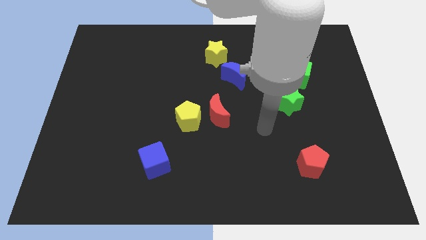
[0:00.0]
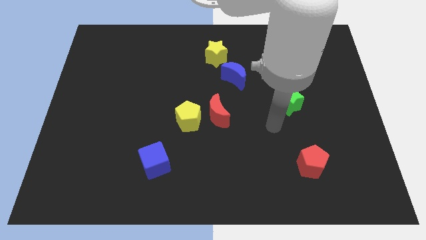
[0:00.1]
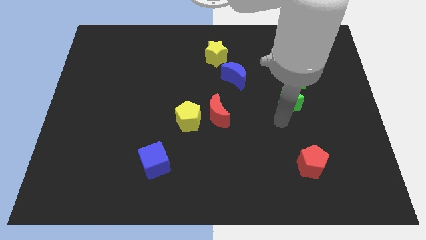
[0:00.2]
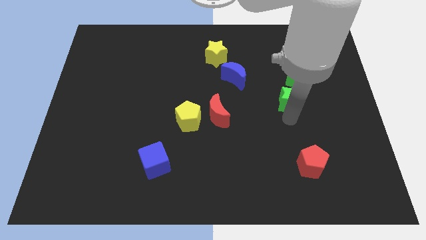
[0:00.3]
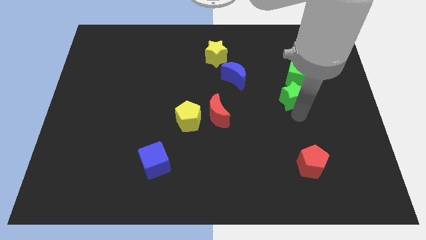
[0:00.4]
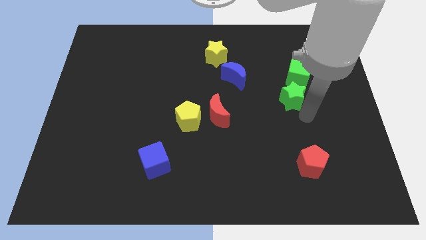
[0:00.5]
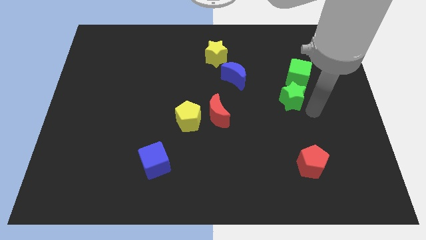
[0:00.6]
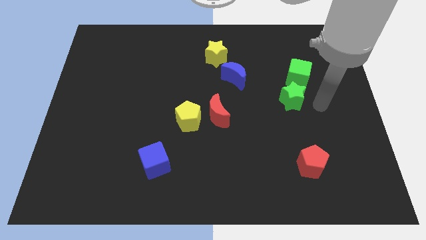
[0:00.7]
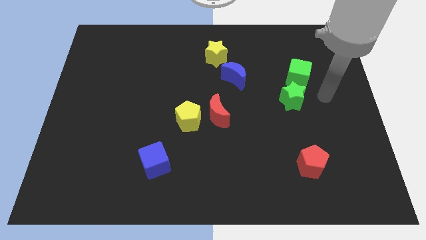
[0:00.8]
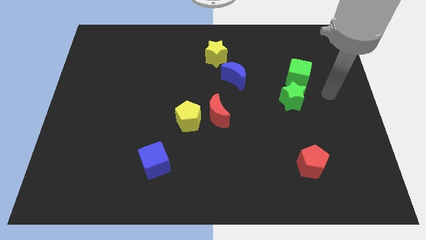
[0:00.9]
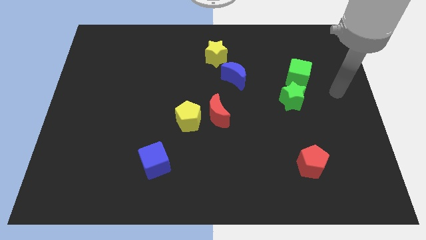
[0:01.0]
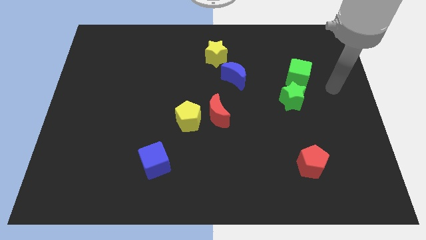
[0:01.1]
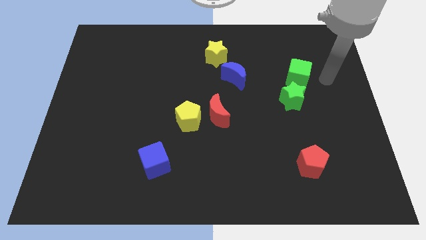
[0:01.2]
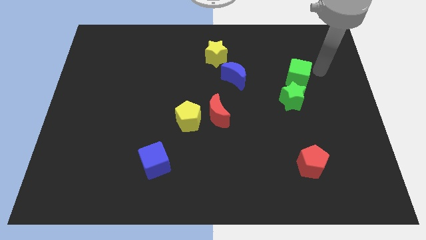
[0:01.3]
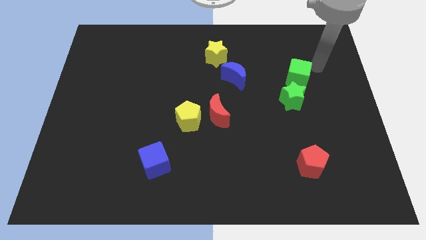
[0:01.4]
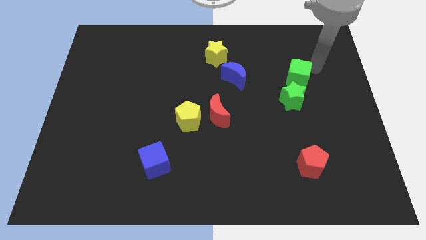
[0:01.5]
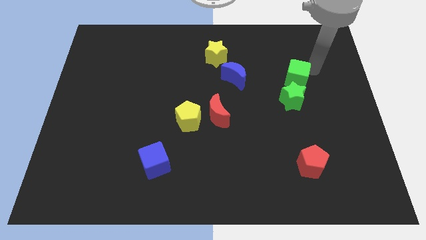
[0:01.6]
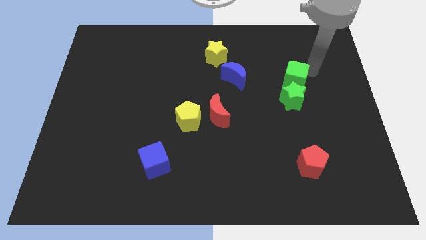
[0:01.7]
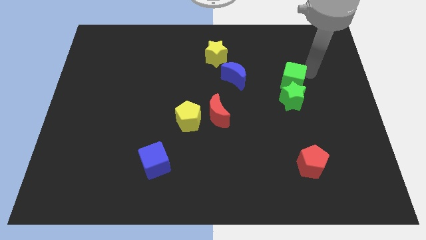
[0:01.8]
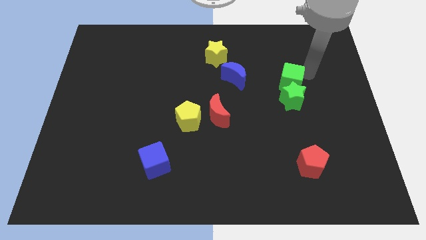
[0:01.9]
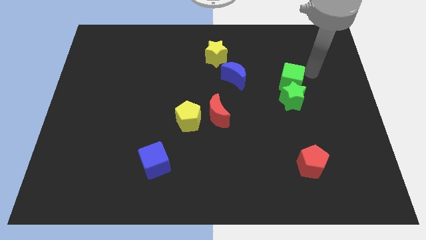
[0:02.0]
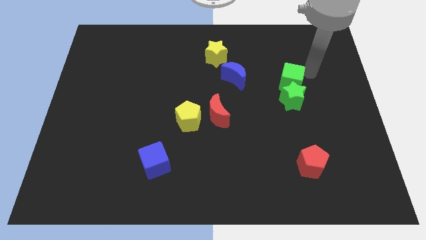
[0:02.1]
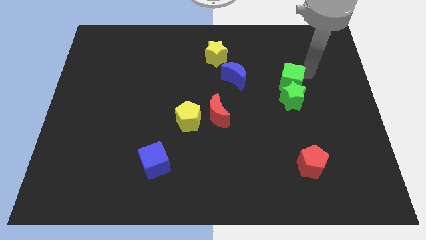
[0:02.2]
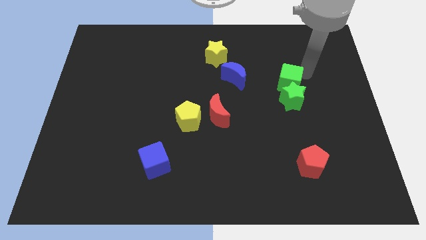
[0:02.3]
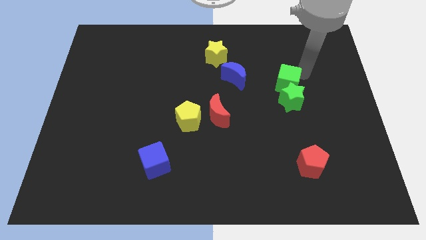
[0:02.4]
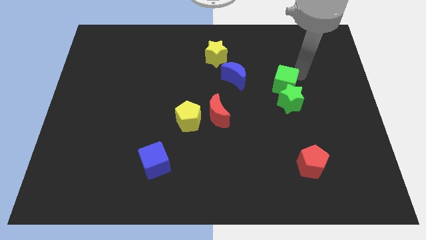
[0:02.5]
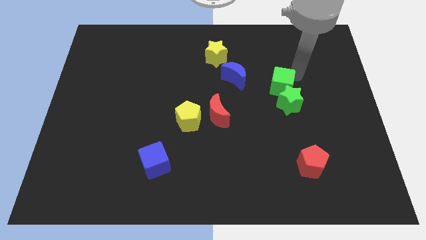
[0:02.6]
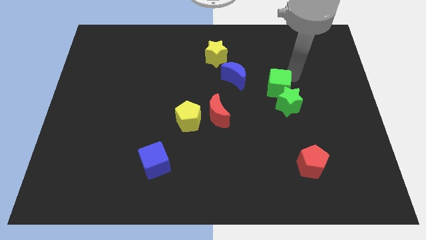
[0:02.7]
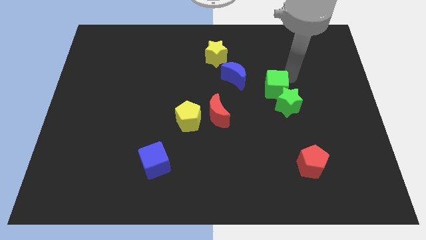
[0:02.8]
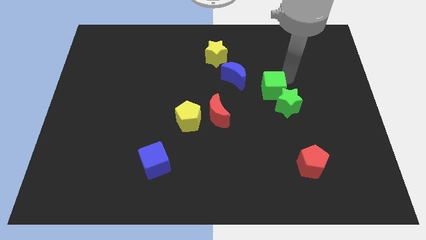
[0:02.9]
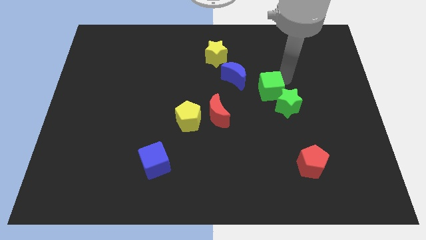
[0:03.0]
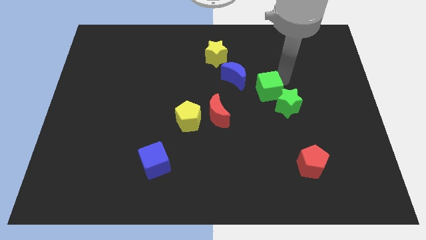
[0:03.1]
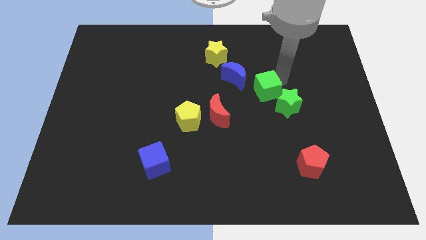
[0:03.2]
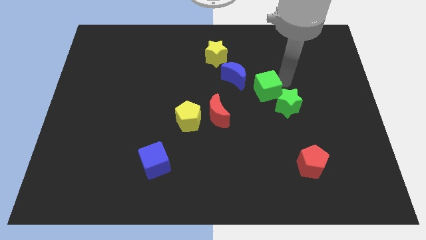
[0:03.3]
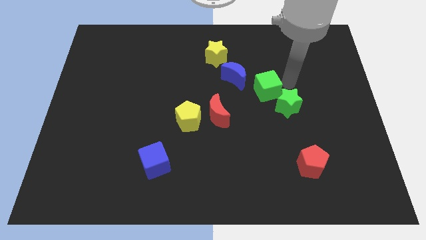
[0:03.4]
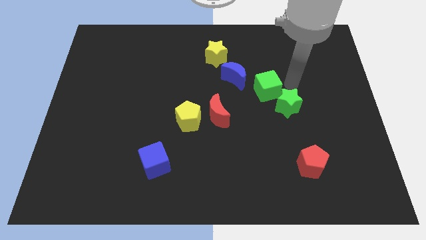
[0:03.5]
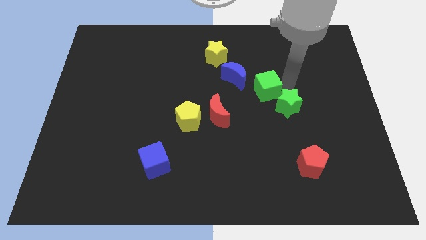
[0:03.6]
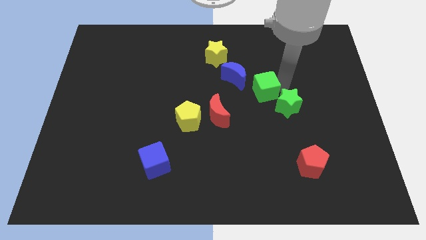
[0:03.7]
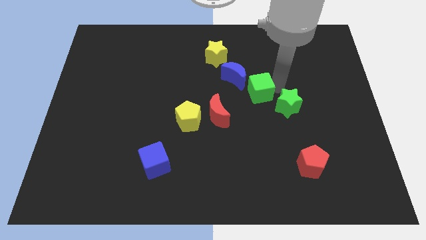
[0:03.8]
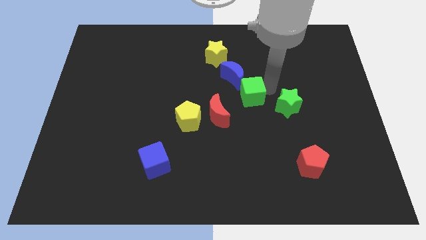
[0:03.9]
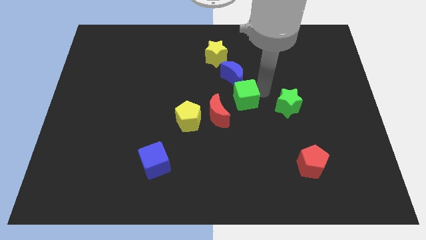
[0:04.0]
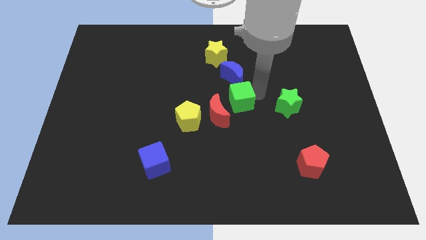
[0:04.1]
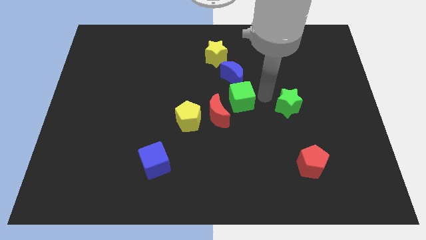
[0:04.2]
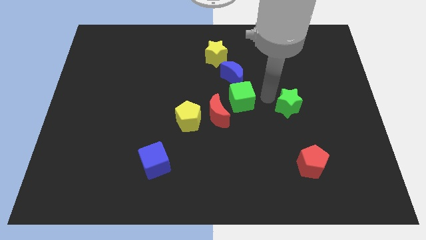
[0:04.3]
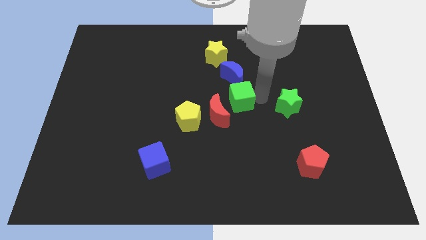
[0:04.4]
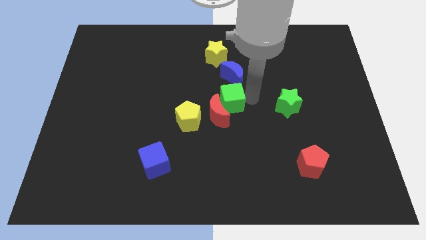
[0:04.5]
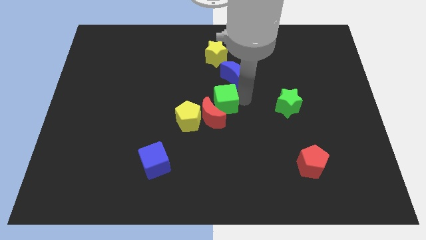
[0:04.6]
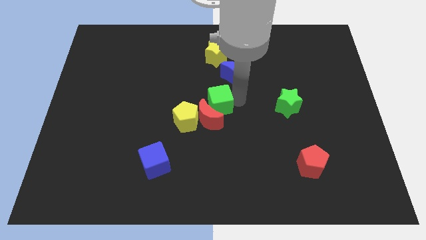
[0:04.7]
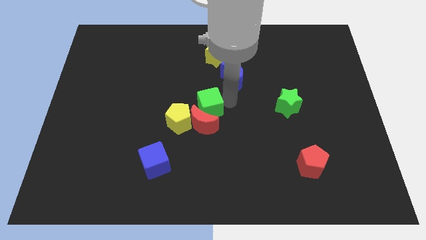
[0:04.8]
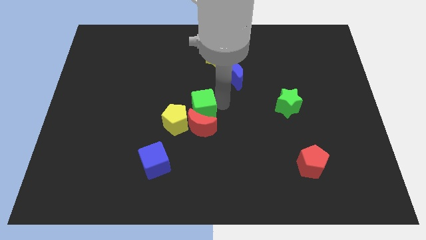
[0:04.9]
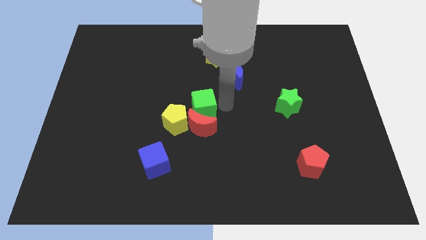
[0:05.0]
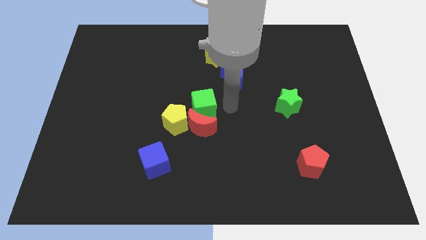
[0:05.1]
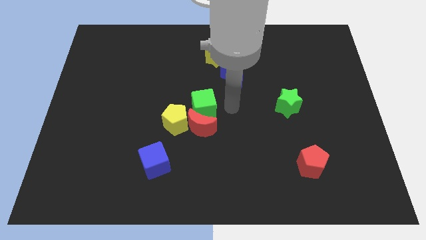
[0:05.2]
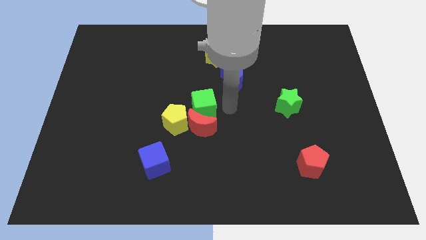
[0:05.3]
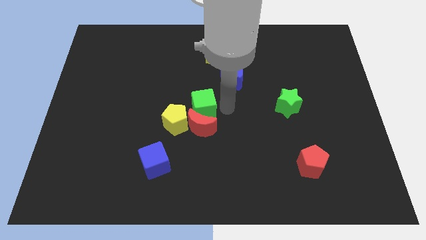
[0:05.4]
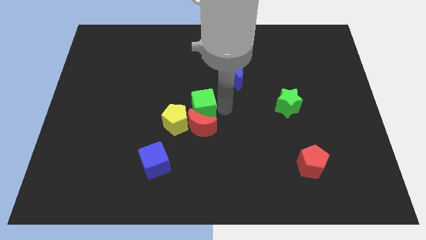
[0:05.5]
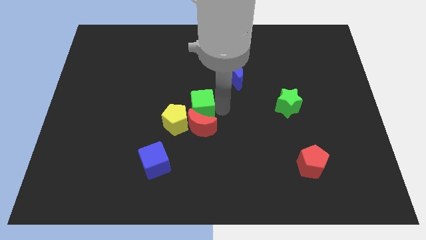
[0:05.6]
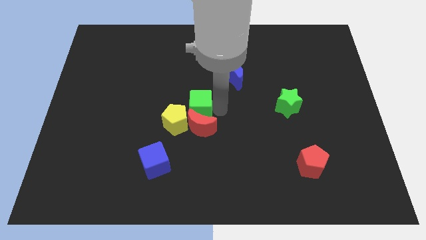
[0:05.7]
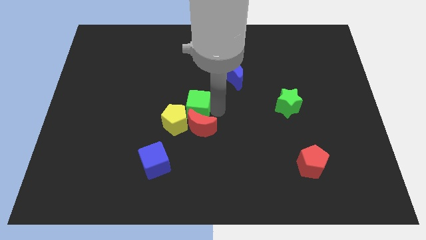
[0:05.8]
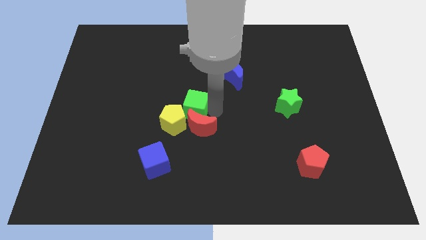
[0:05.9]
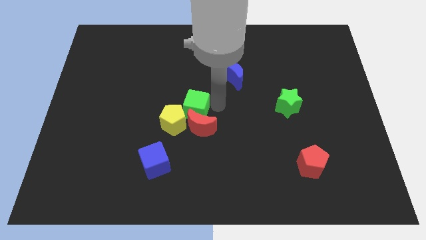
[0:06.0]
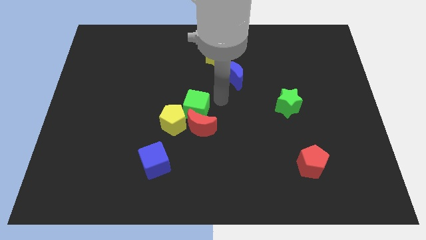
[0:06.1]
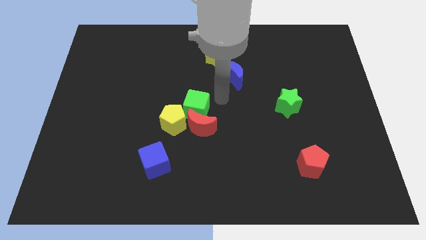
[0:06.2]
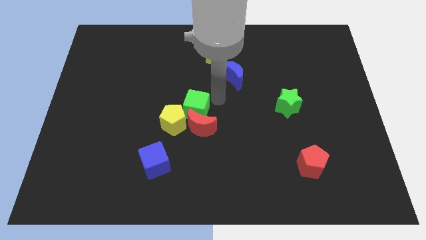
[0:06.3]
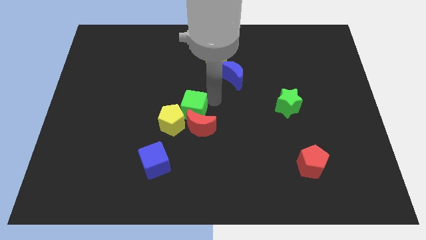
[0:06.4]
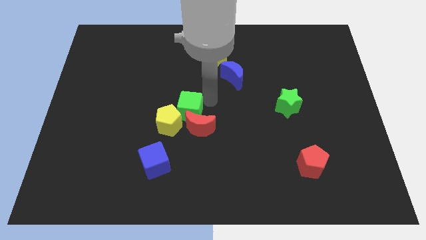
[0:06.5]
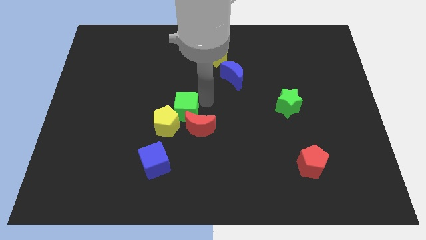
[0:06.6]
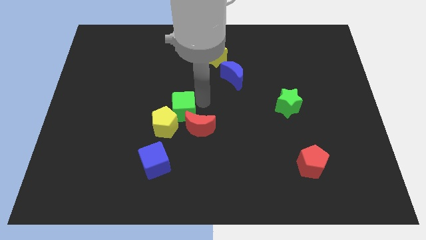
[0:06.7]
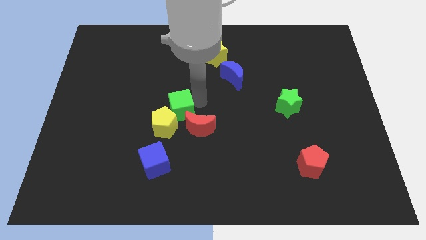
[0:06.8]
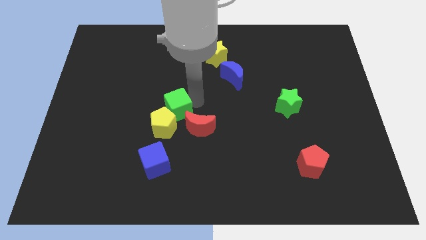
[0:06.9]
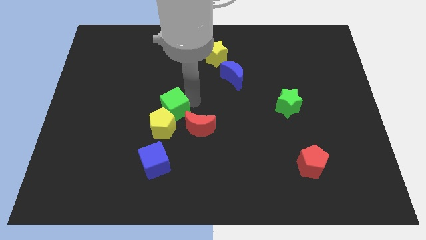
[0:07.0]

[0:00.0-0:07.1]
move the green cube above the blue cube
